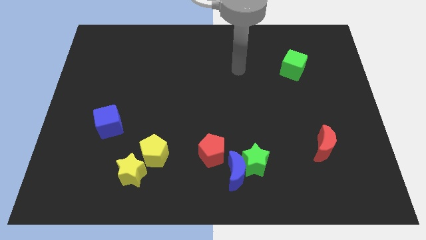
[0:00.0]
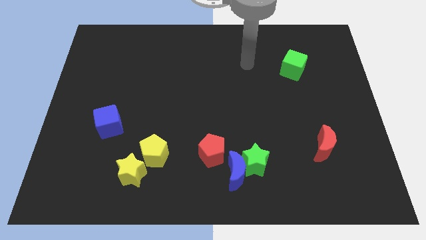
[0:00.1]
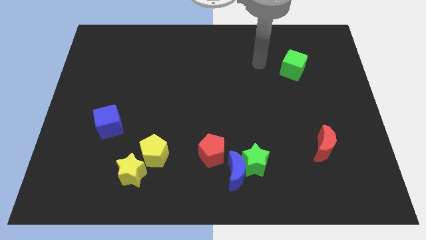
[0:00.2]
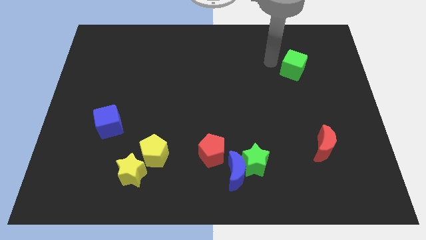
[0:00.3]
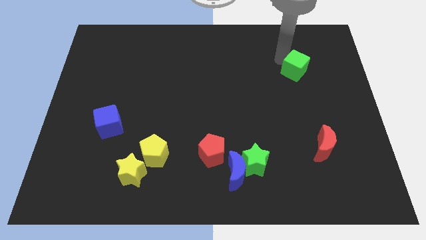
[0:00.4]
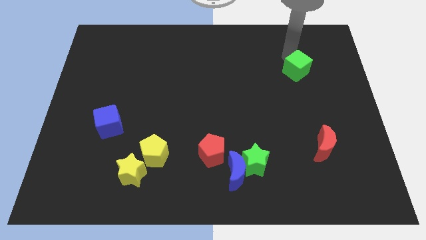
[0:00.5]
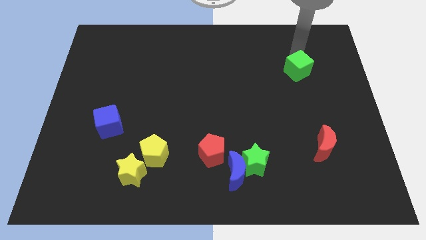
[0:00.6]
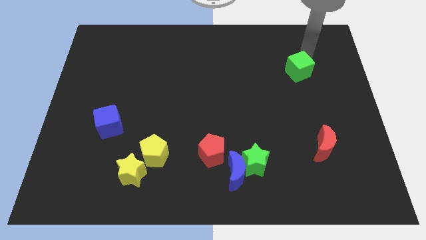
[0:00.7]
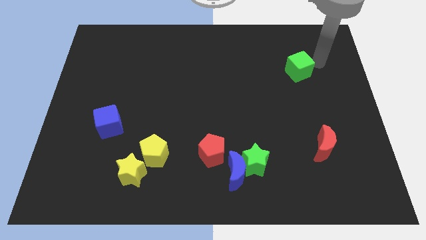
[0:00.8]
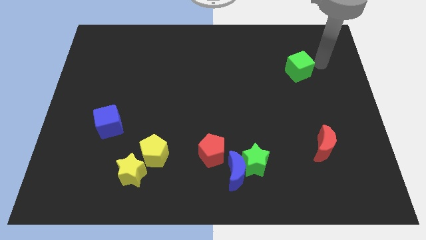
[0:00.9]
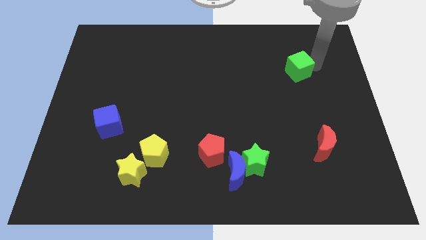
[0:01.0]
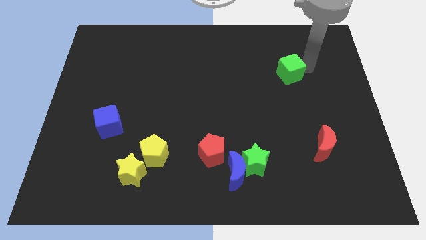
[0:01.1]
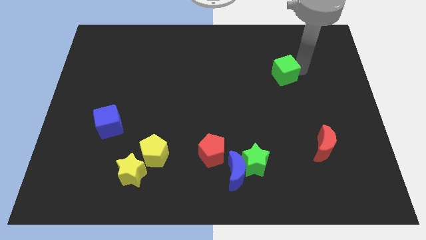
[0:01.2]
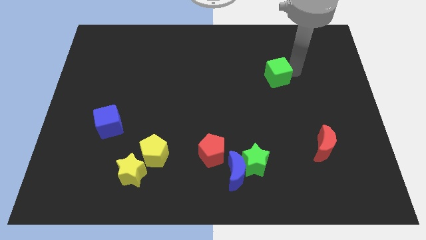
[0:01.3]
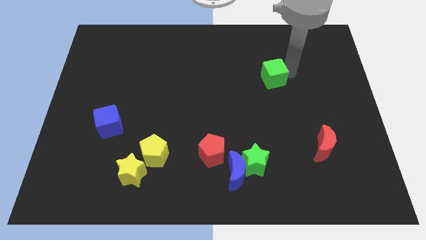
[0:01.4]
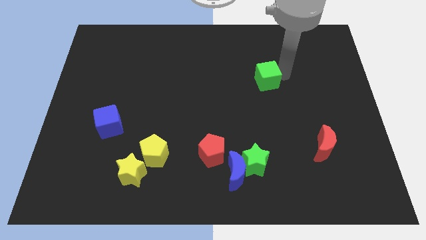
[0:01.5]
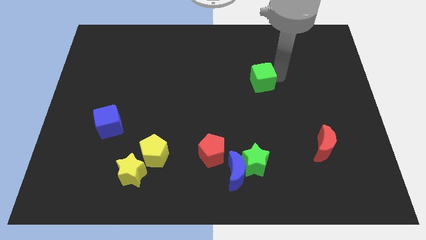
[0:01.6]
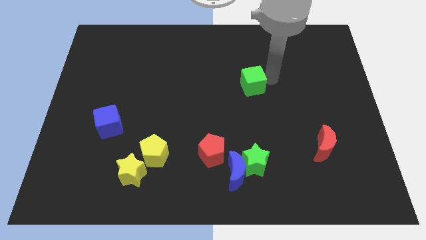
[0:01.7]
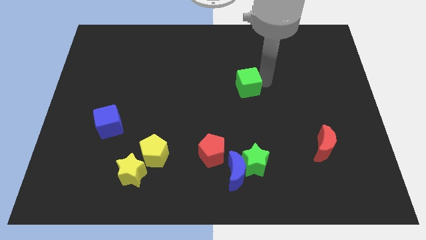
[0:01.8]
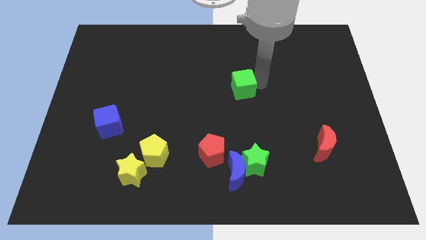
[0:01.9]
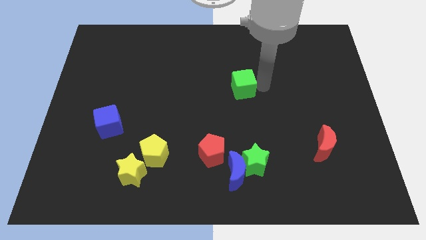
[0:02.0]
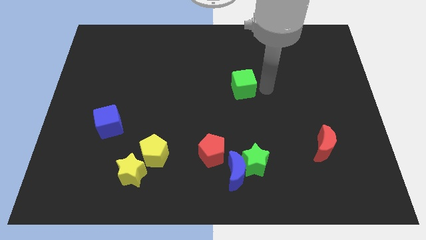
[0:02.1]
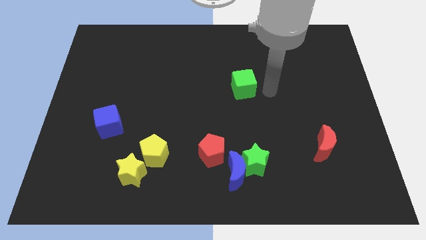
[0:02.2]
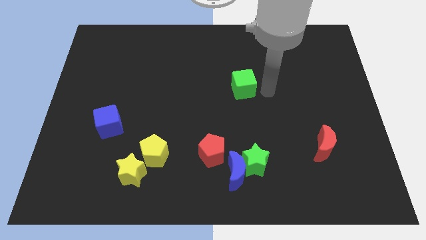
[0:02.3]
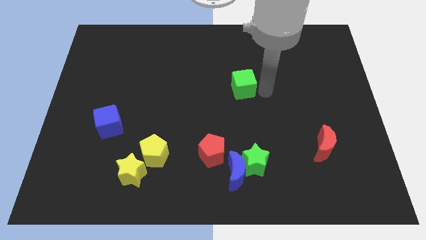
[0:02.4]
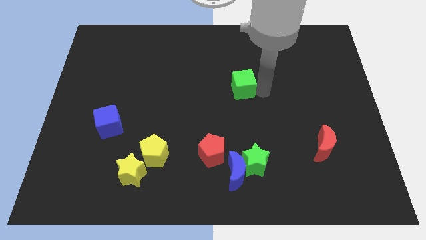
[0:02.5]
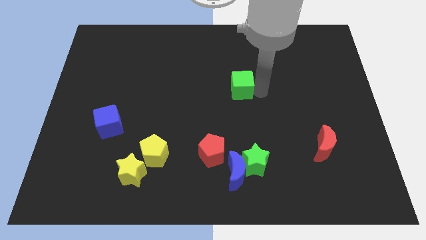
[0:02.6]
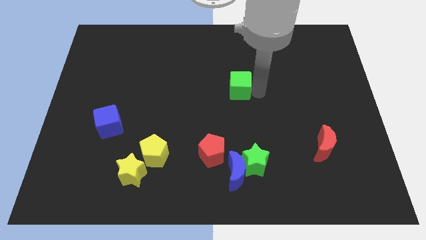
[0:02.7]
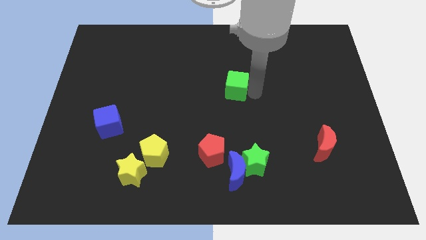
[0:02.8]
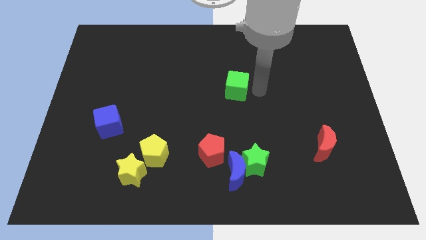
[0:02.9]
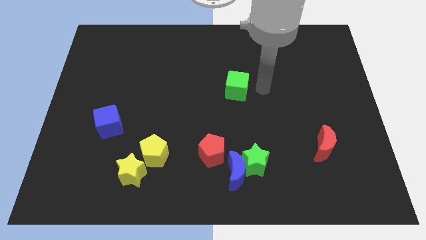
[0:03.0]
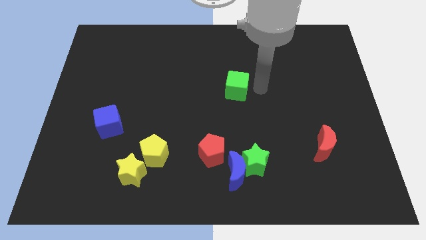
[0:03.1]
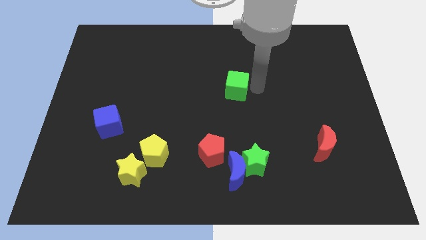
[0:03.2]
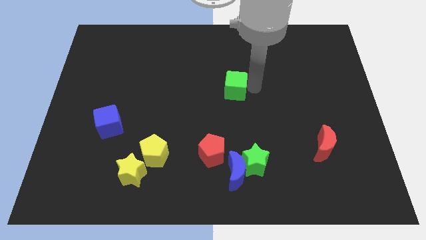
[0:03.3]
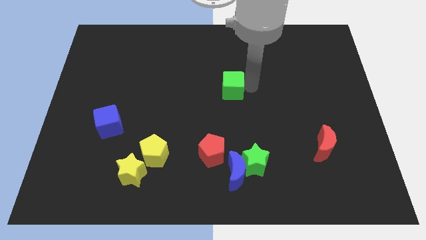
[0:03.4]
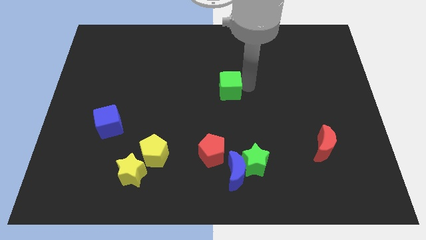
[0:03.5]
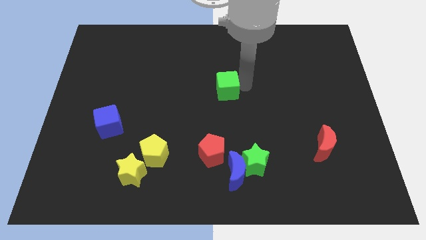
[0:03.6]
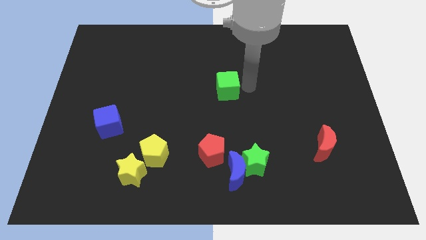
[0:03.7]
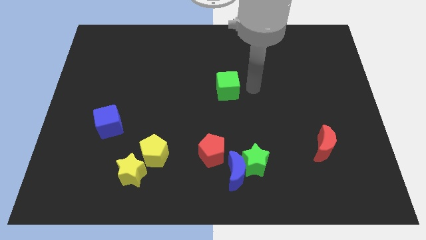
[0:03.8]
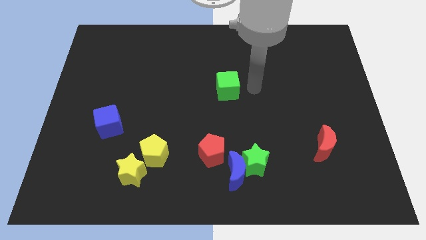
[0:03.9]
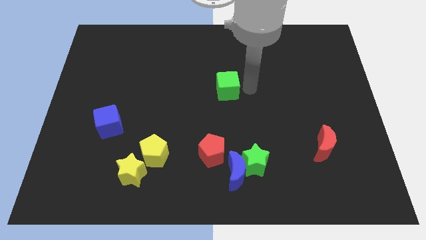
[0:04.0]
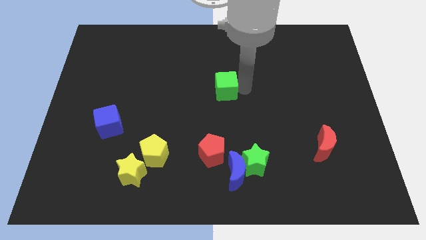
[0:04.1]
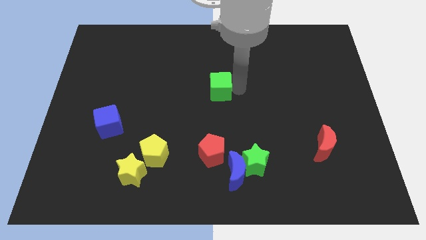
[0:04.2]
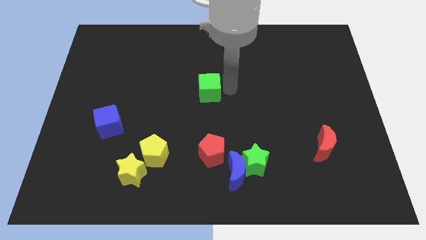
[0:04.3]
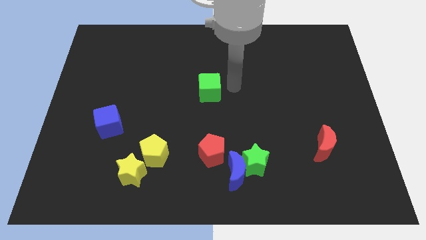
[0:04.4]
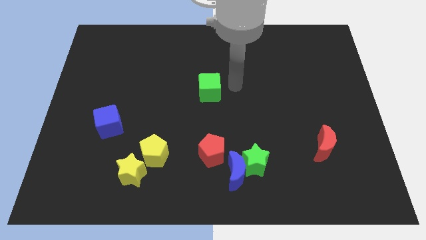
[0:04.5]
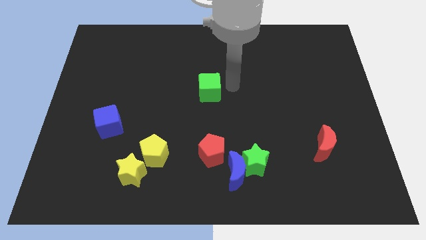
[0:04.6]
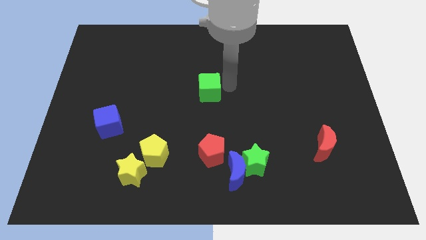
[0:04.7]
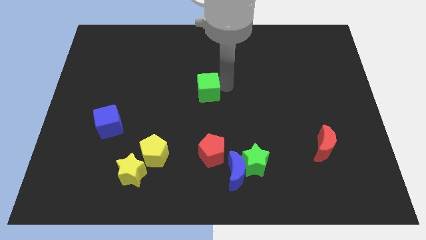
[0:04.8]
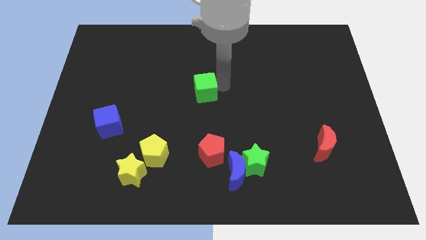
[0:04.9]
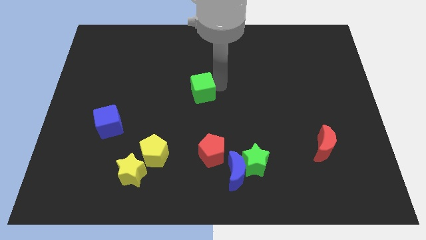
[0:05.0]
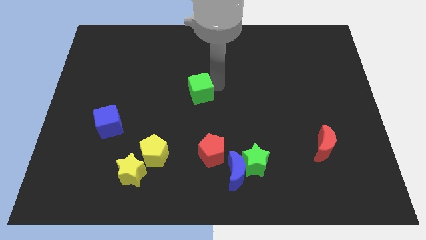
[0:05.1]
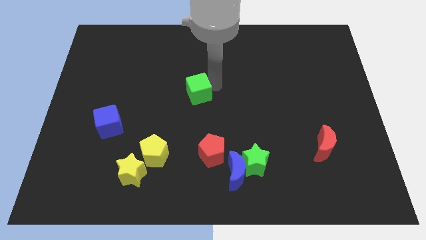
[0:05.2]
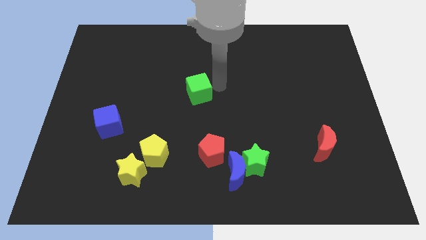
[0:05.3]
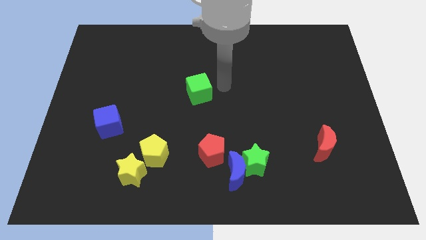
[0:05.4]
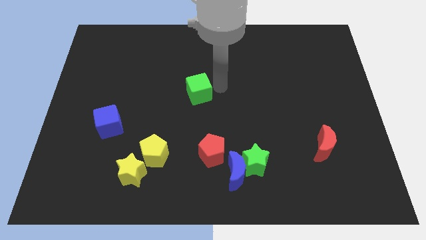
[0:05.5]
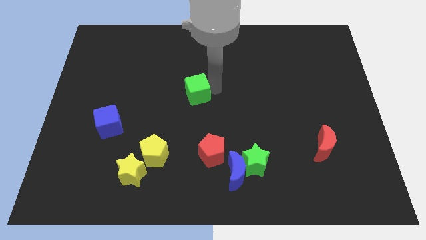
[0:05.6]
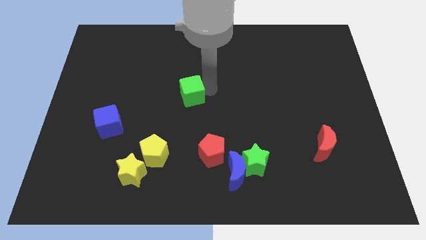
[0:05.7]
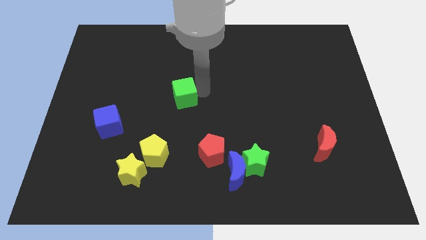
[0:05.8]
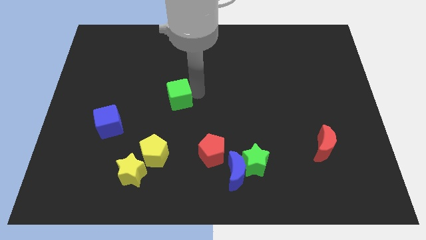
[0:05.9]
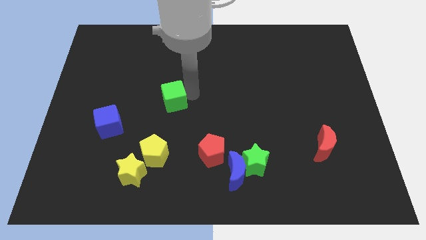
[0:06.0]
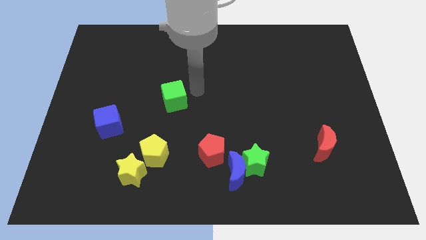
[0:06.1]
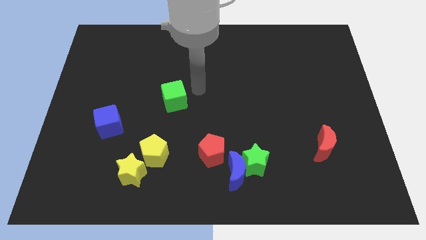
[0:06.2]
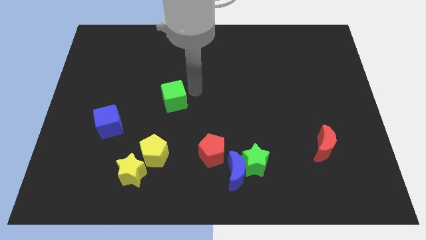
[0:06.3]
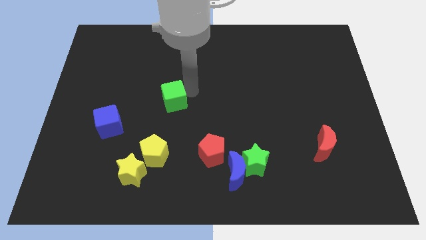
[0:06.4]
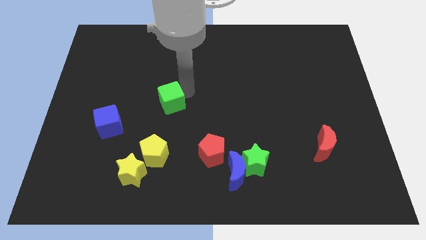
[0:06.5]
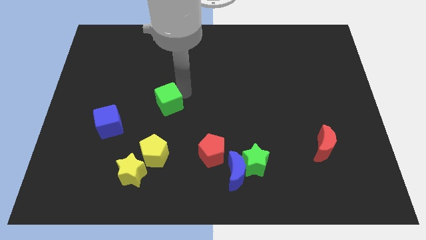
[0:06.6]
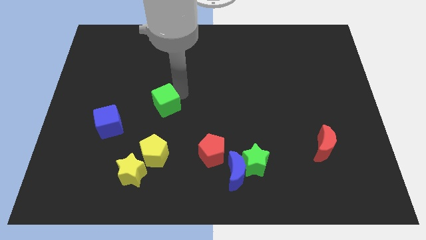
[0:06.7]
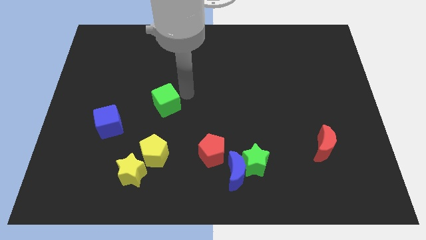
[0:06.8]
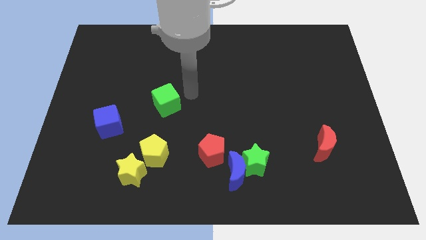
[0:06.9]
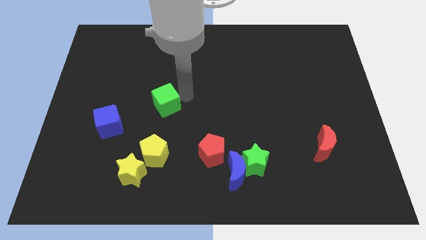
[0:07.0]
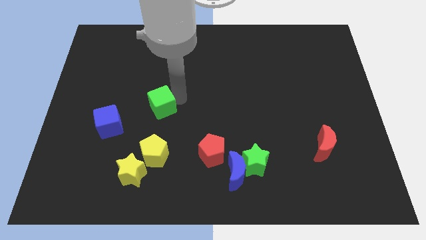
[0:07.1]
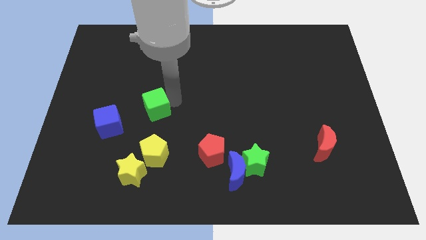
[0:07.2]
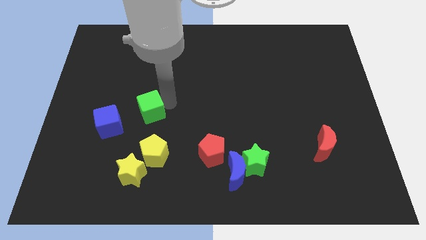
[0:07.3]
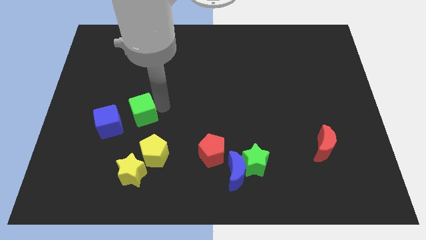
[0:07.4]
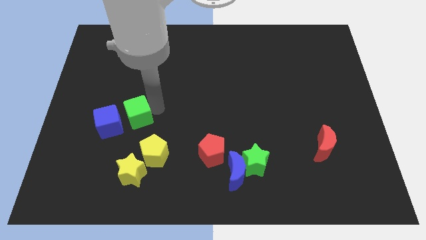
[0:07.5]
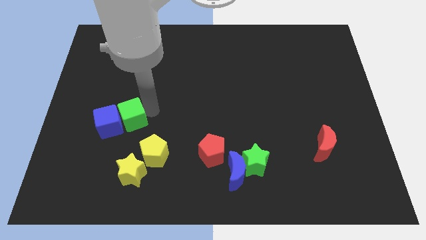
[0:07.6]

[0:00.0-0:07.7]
move the green cube close to the blue cube
